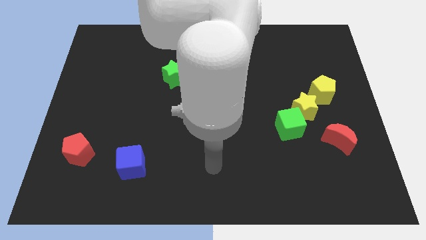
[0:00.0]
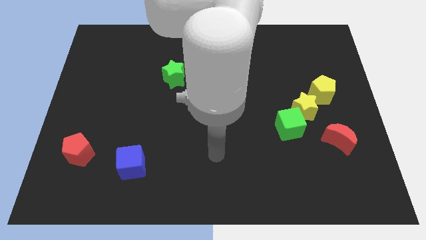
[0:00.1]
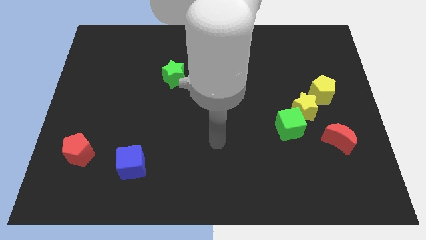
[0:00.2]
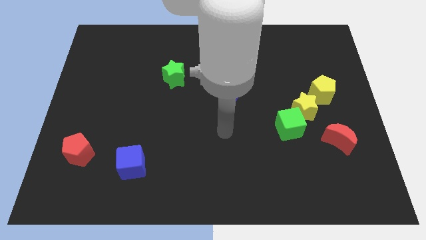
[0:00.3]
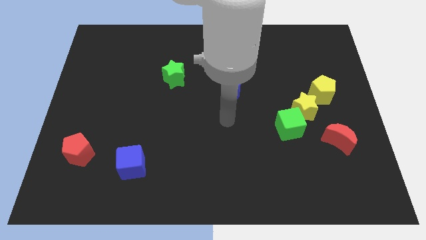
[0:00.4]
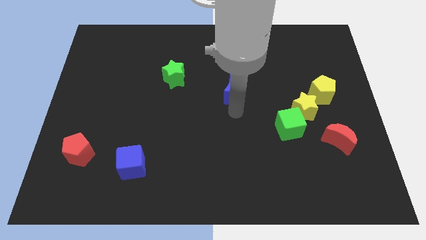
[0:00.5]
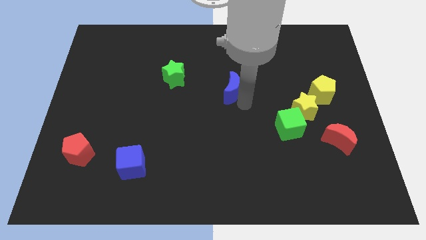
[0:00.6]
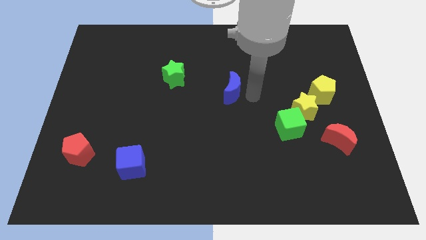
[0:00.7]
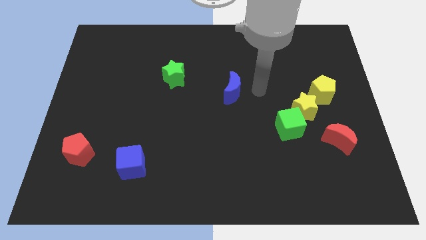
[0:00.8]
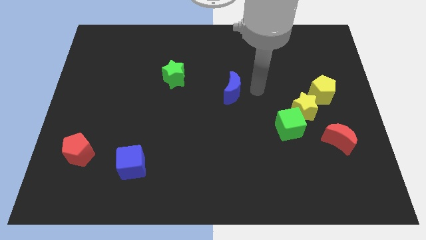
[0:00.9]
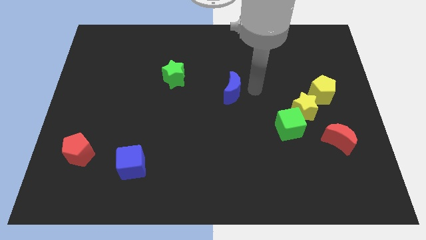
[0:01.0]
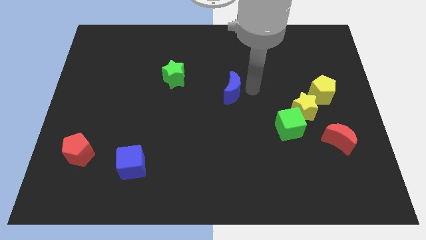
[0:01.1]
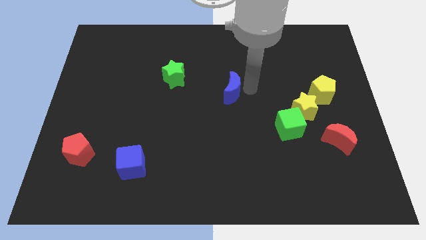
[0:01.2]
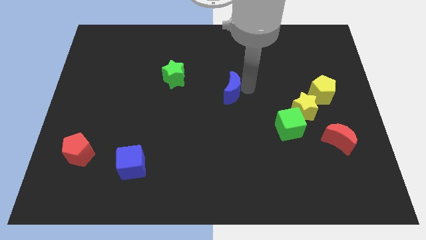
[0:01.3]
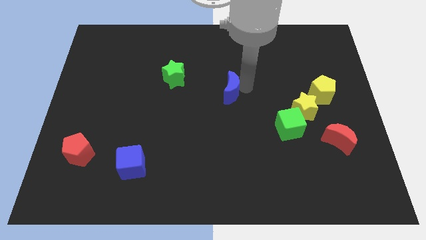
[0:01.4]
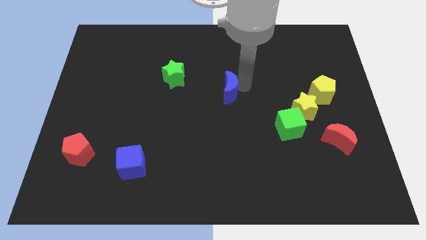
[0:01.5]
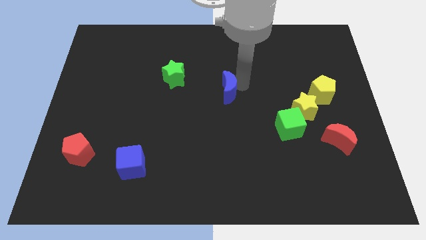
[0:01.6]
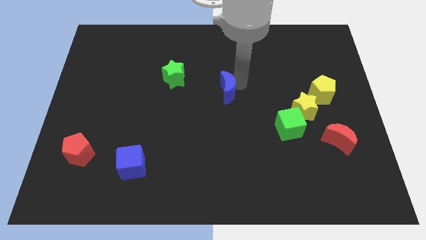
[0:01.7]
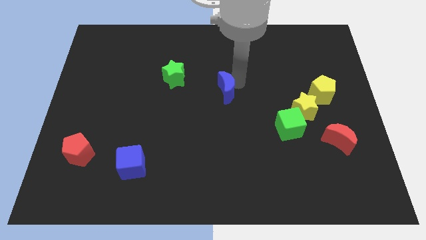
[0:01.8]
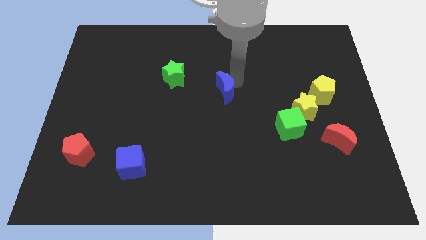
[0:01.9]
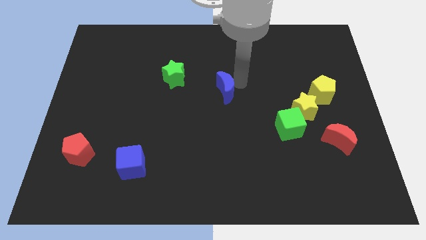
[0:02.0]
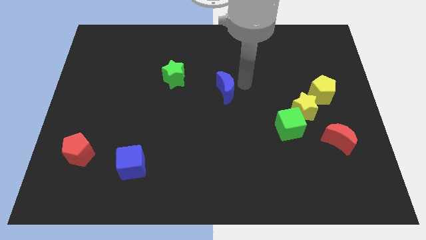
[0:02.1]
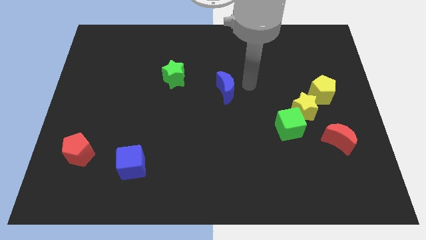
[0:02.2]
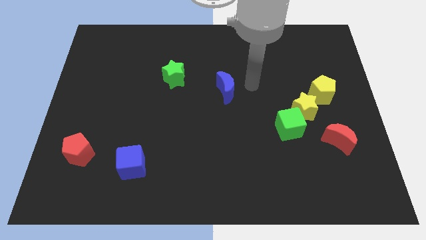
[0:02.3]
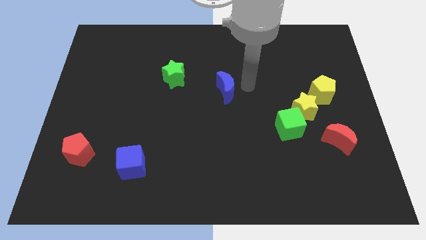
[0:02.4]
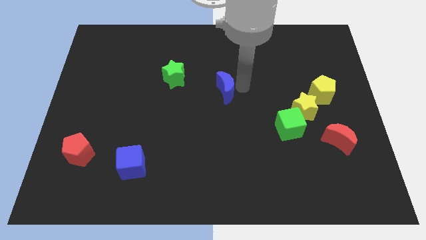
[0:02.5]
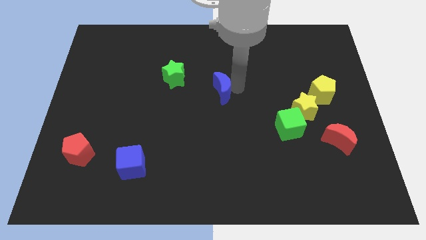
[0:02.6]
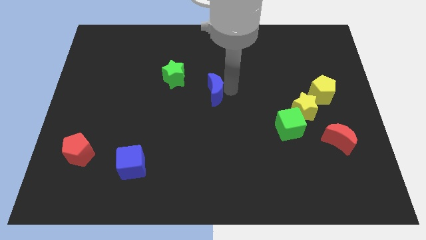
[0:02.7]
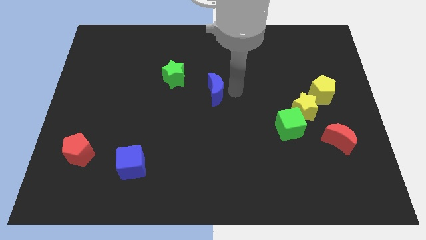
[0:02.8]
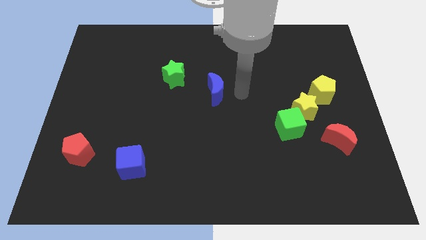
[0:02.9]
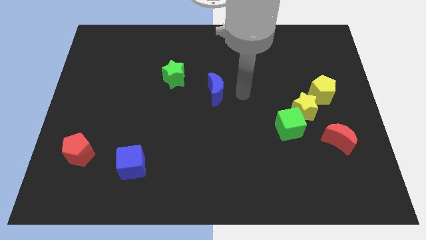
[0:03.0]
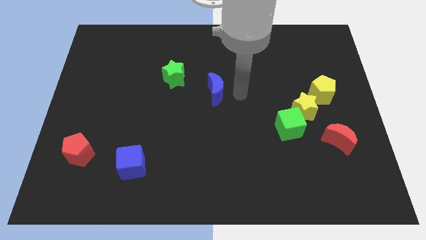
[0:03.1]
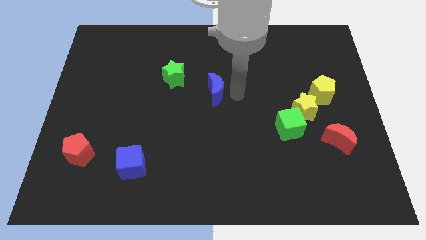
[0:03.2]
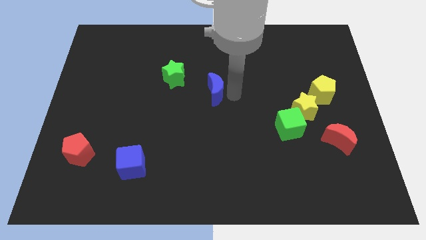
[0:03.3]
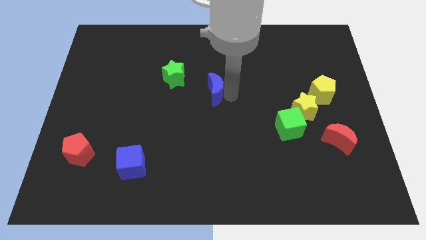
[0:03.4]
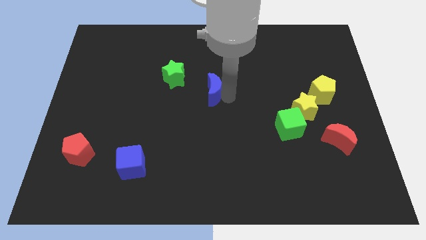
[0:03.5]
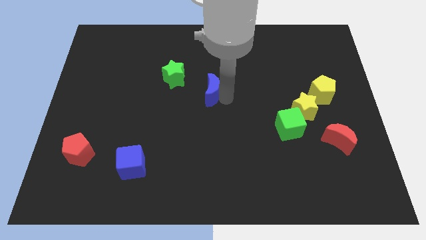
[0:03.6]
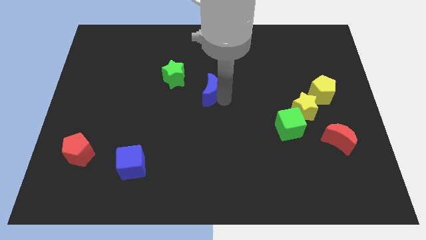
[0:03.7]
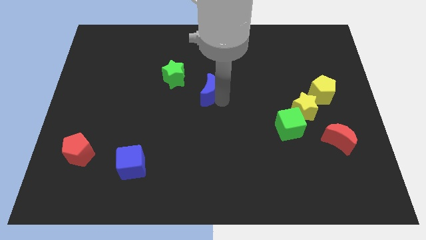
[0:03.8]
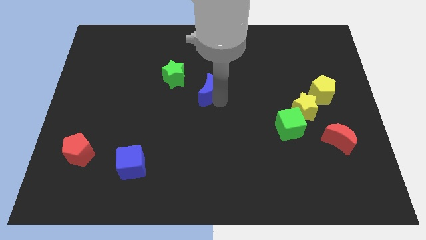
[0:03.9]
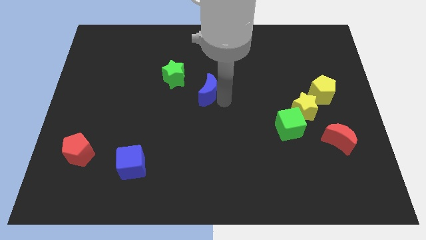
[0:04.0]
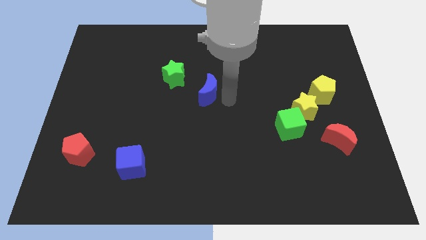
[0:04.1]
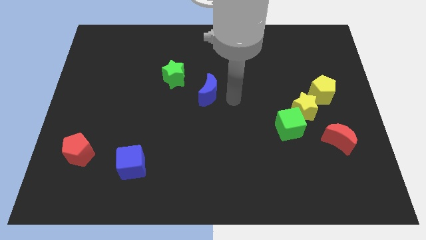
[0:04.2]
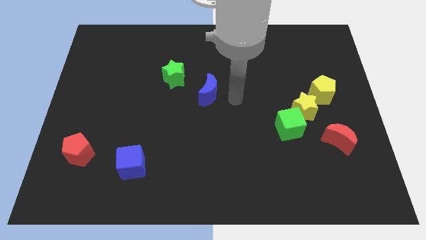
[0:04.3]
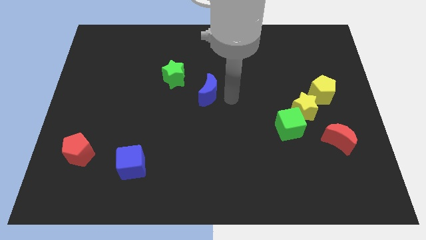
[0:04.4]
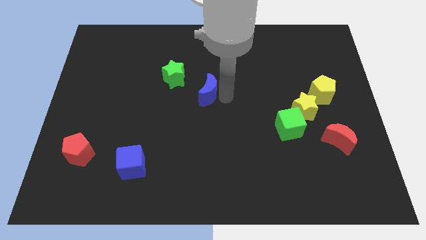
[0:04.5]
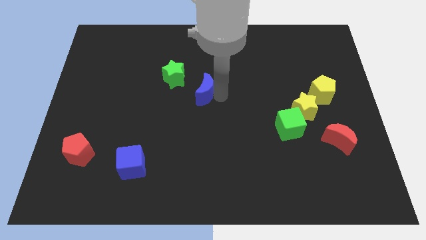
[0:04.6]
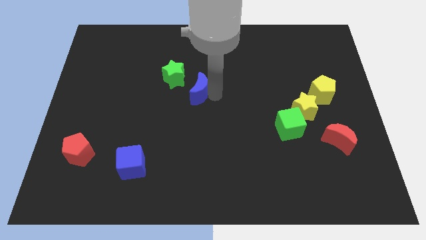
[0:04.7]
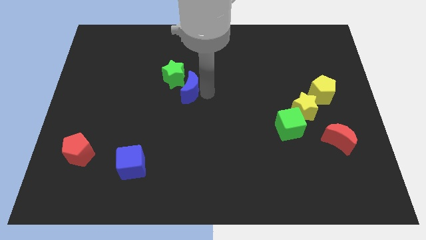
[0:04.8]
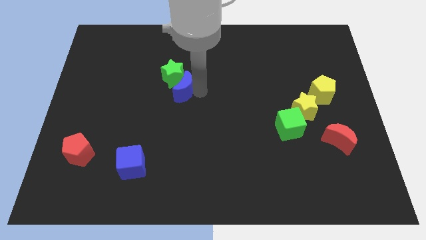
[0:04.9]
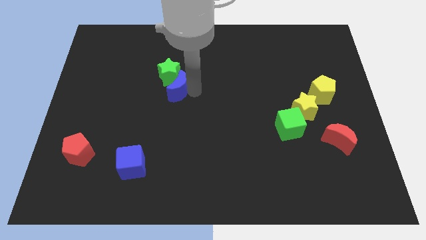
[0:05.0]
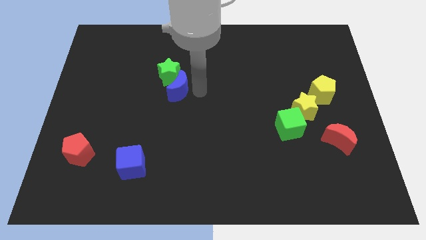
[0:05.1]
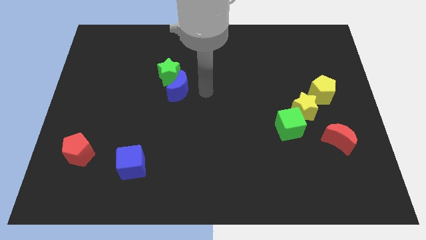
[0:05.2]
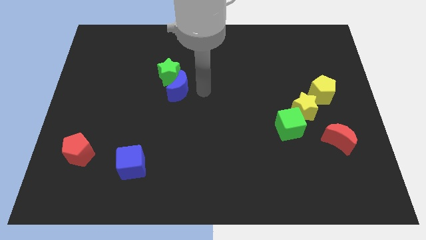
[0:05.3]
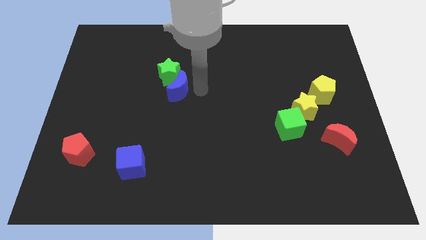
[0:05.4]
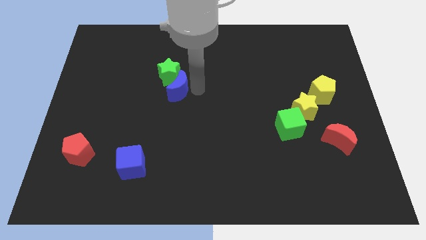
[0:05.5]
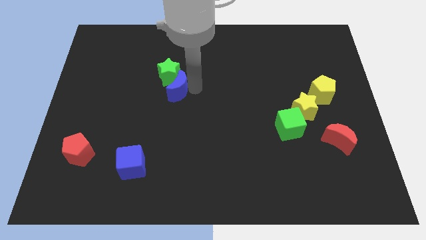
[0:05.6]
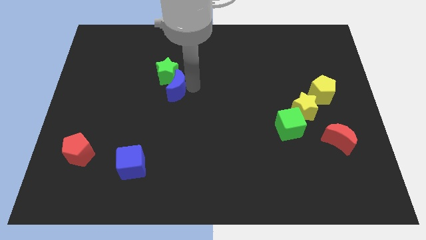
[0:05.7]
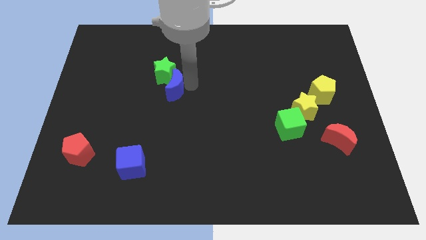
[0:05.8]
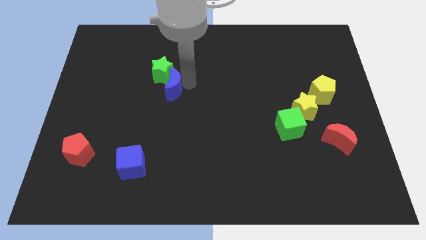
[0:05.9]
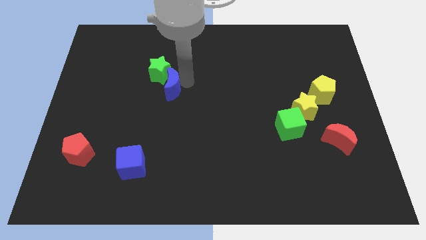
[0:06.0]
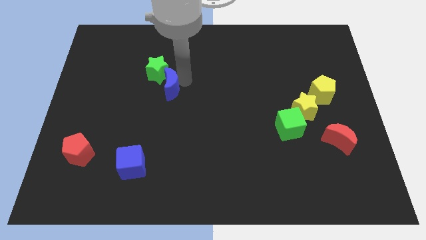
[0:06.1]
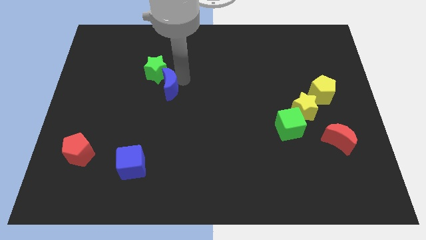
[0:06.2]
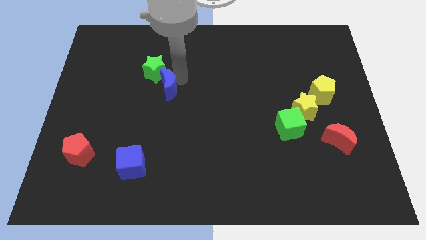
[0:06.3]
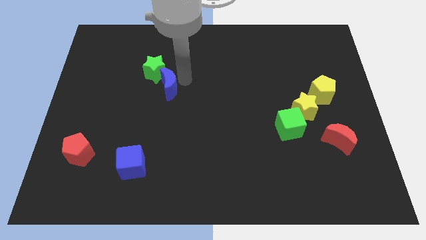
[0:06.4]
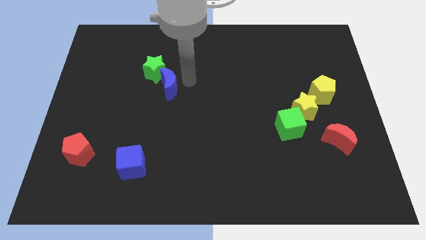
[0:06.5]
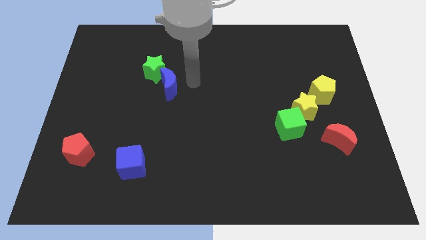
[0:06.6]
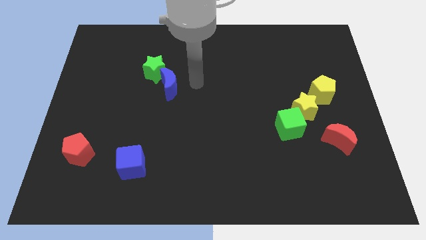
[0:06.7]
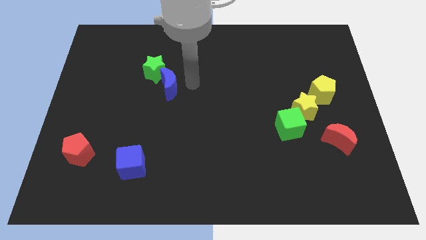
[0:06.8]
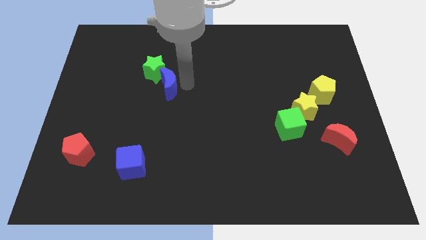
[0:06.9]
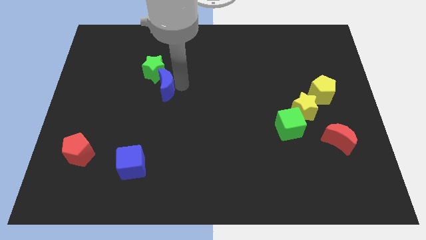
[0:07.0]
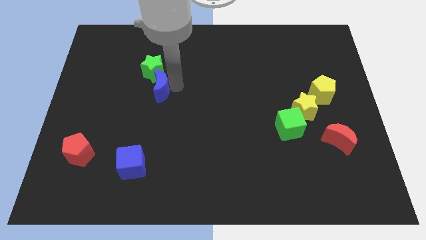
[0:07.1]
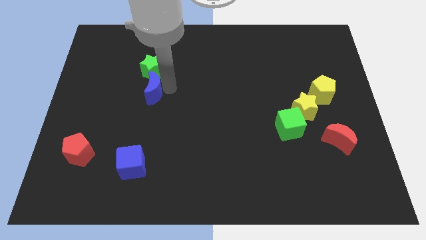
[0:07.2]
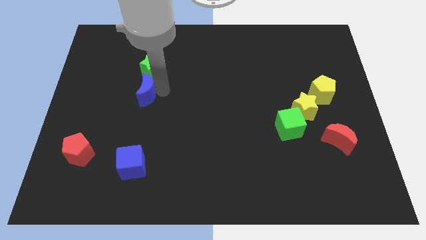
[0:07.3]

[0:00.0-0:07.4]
push the blue moon to the left

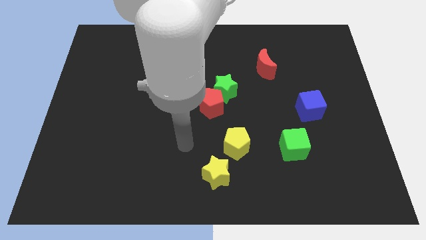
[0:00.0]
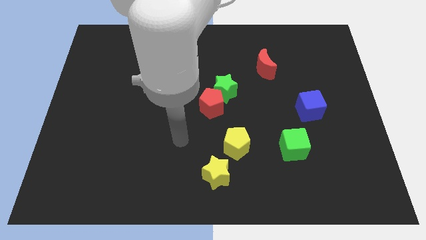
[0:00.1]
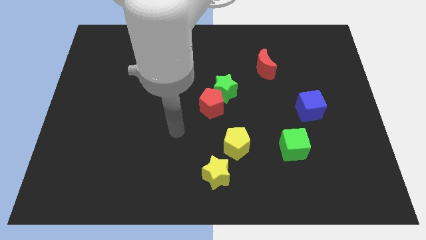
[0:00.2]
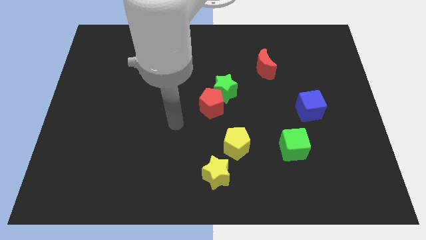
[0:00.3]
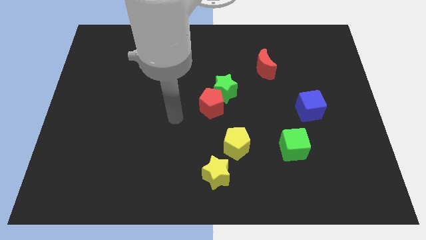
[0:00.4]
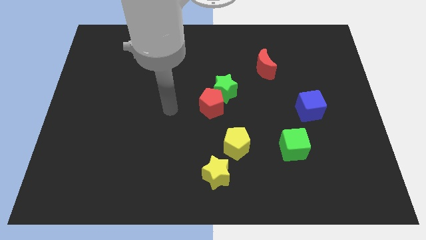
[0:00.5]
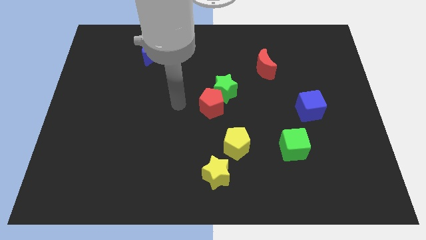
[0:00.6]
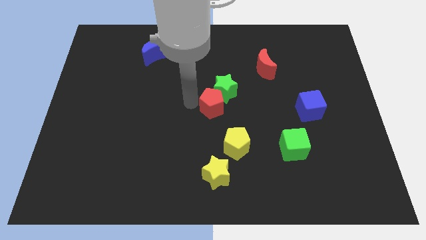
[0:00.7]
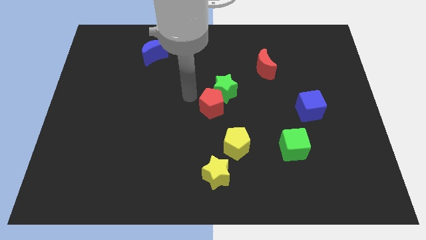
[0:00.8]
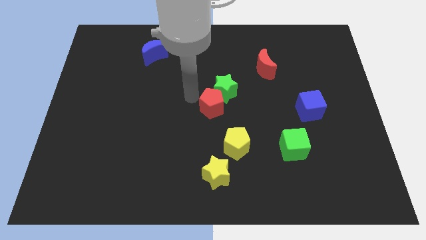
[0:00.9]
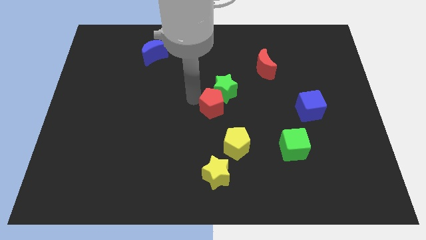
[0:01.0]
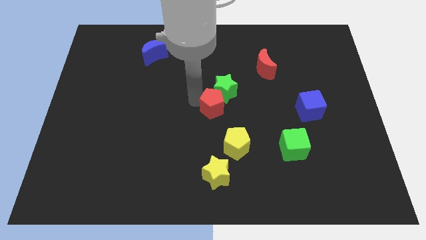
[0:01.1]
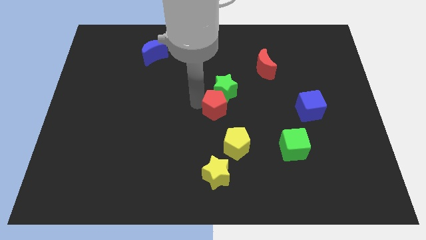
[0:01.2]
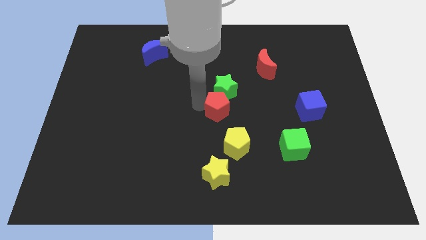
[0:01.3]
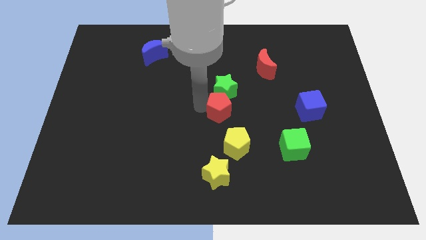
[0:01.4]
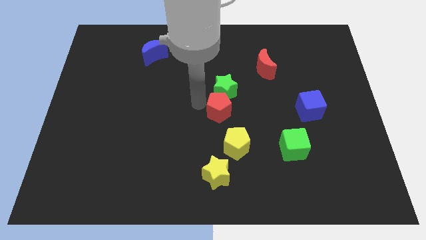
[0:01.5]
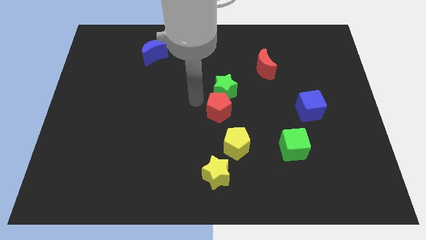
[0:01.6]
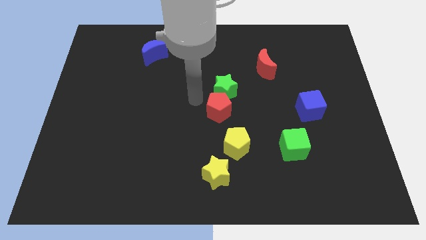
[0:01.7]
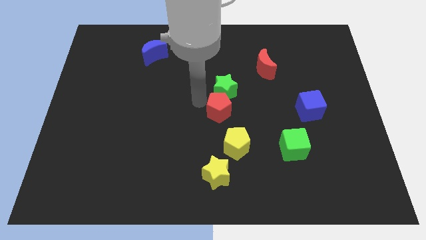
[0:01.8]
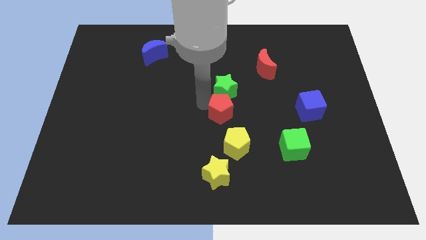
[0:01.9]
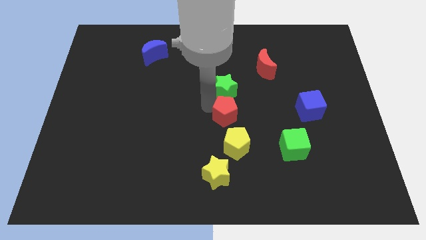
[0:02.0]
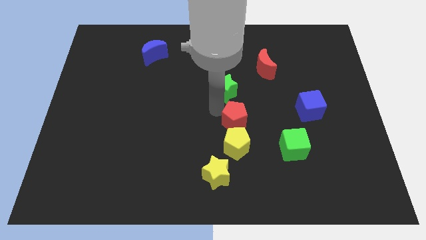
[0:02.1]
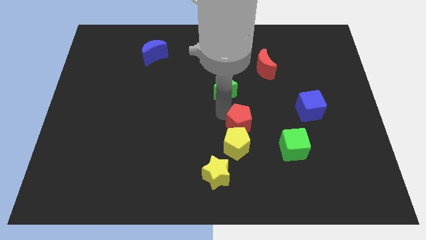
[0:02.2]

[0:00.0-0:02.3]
move the red pentagon slightly downwards and then right
